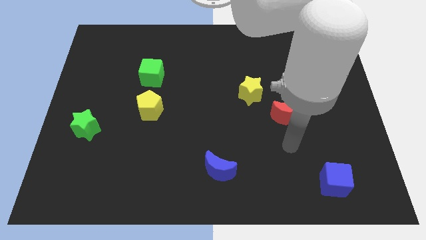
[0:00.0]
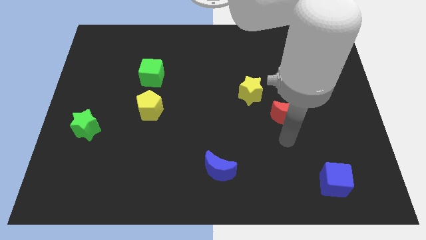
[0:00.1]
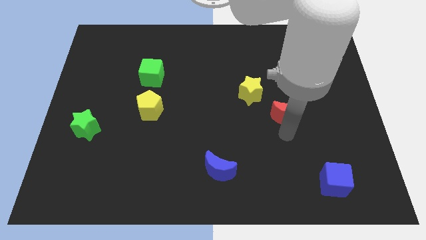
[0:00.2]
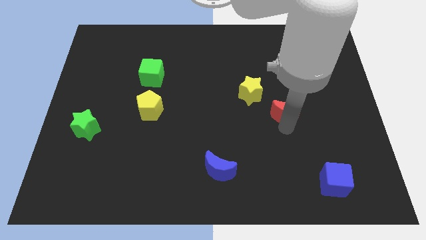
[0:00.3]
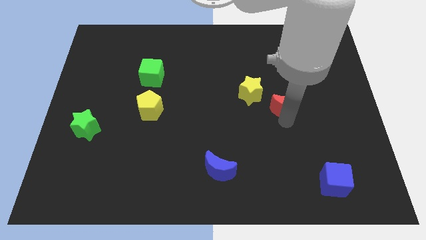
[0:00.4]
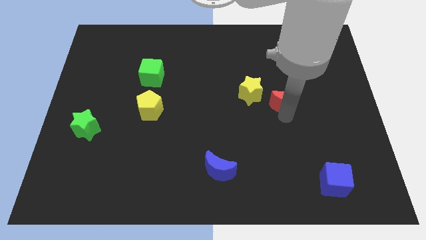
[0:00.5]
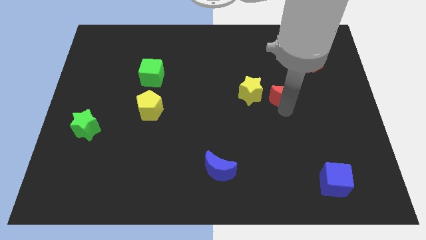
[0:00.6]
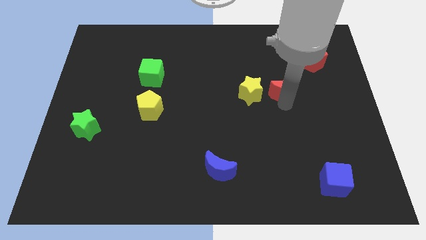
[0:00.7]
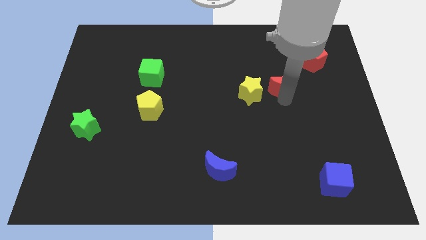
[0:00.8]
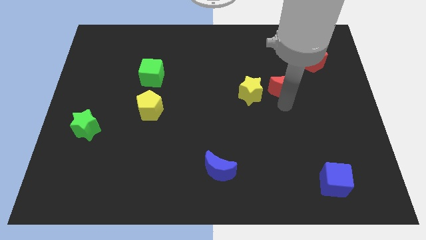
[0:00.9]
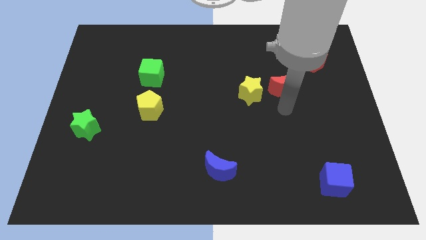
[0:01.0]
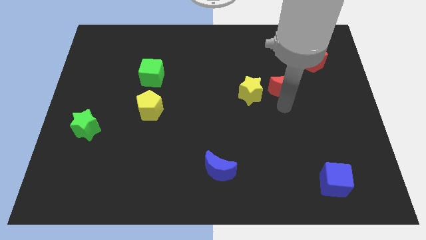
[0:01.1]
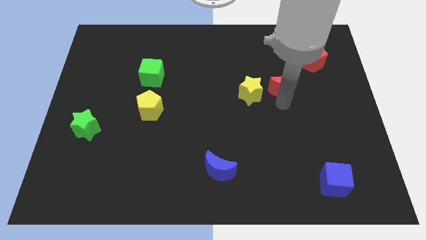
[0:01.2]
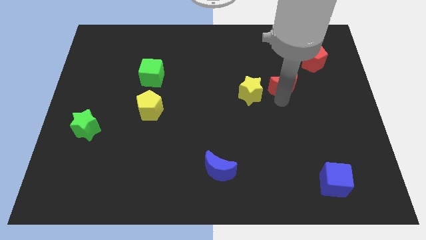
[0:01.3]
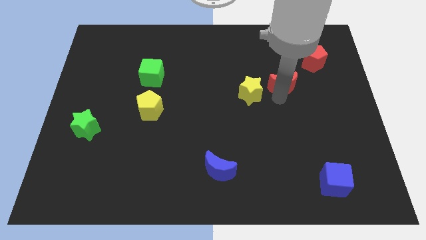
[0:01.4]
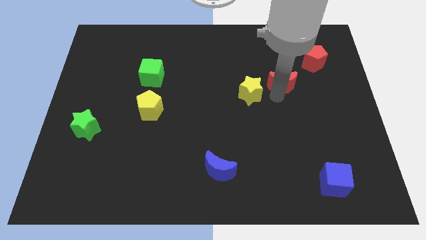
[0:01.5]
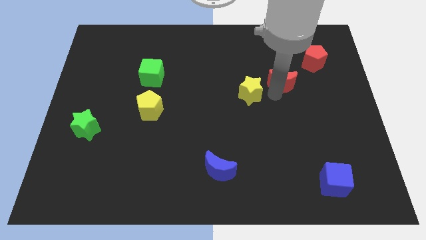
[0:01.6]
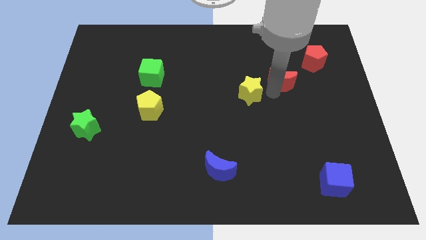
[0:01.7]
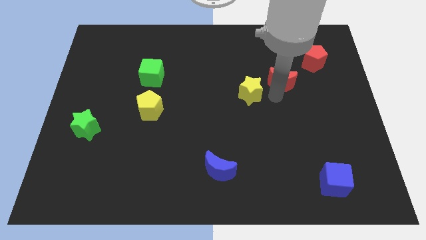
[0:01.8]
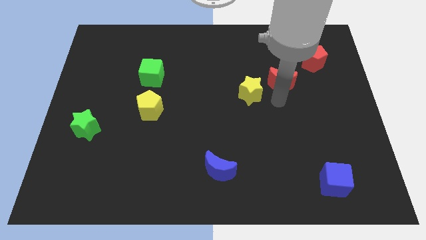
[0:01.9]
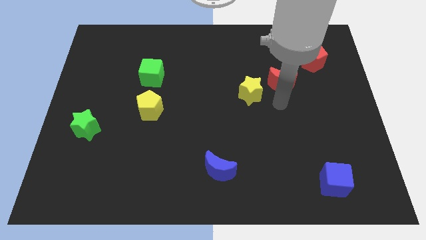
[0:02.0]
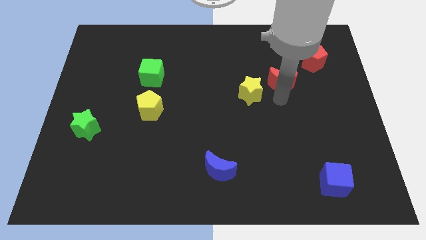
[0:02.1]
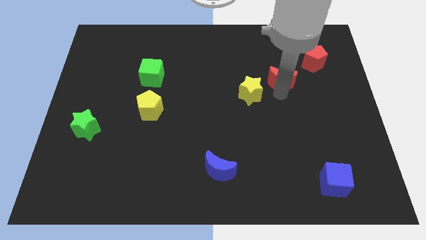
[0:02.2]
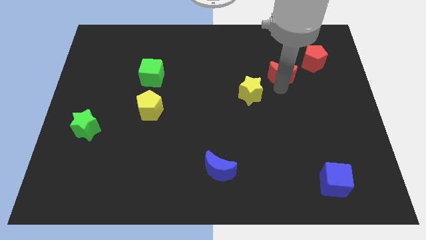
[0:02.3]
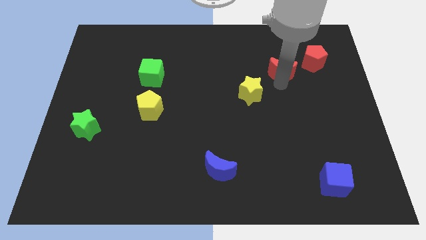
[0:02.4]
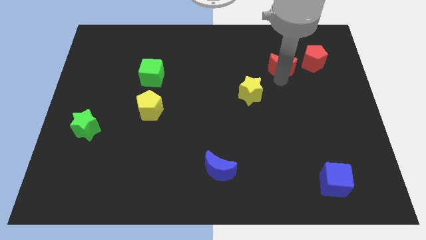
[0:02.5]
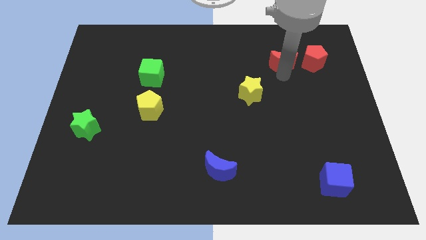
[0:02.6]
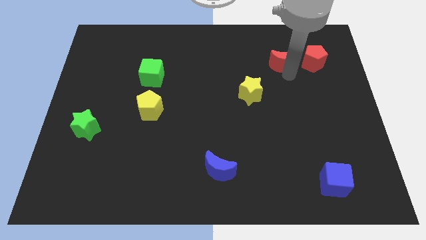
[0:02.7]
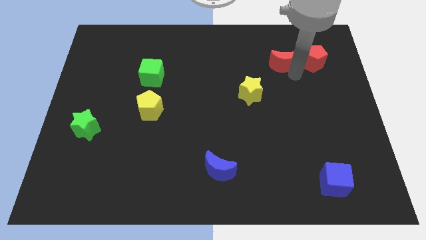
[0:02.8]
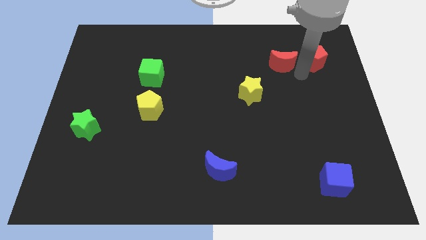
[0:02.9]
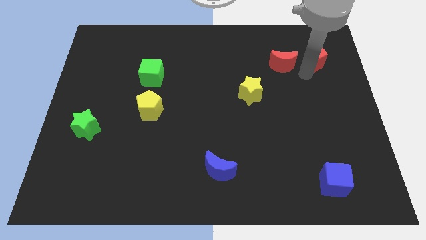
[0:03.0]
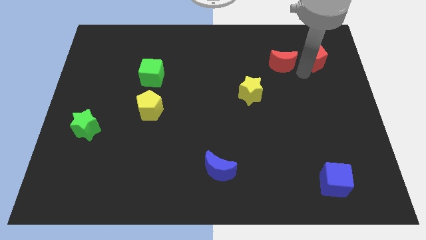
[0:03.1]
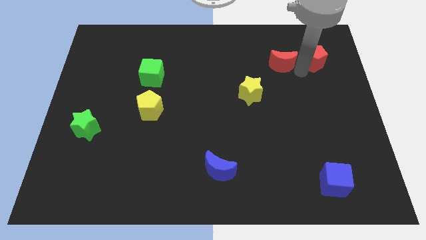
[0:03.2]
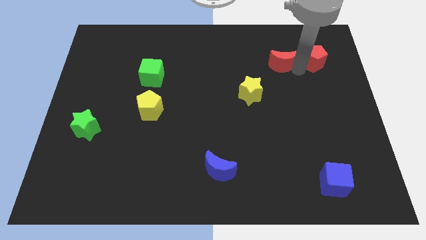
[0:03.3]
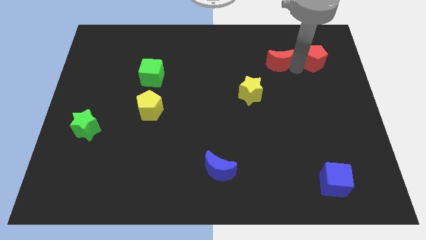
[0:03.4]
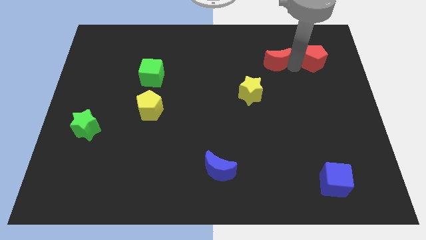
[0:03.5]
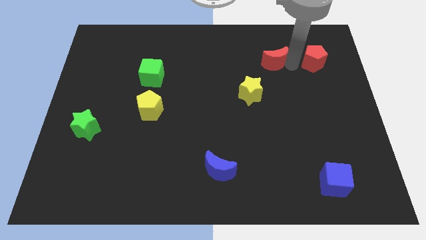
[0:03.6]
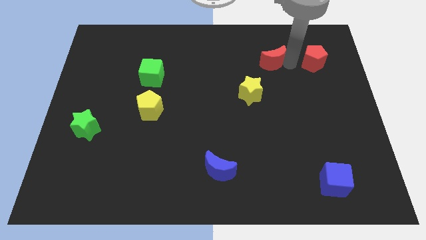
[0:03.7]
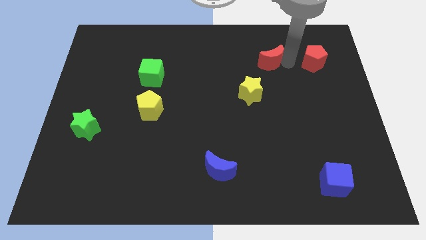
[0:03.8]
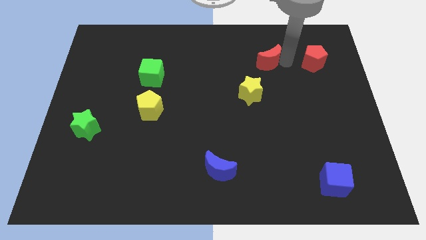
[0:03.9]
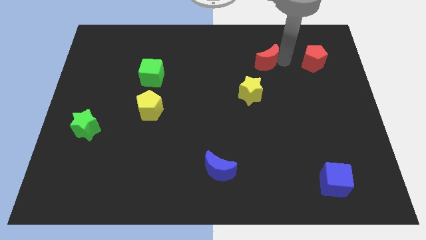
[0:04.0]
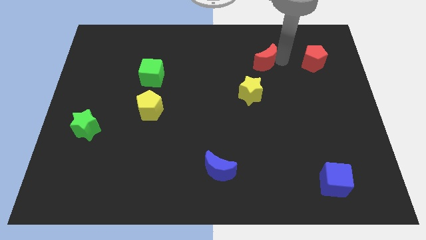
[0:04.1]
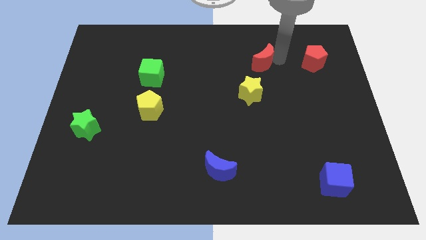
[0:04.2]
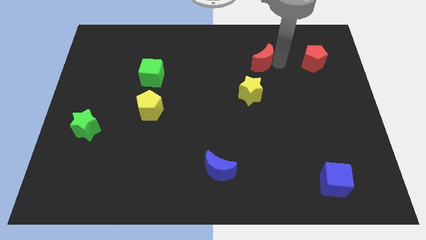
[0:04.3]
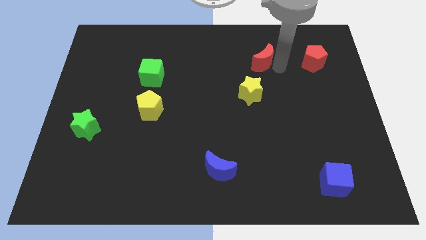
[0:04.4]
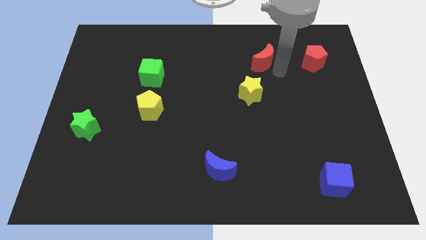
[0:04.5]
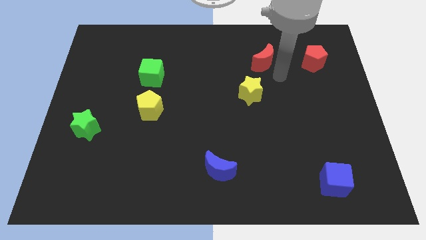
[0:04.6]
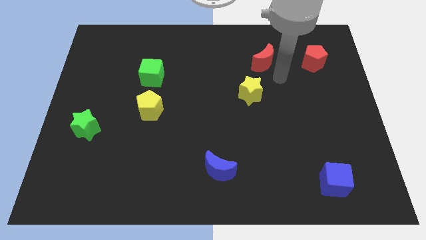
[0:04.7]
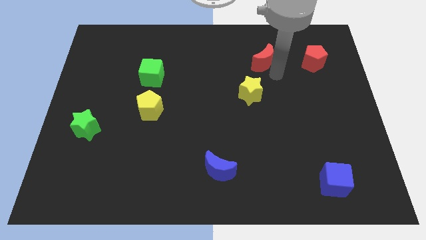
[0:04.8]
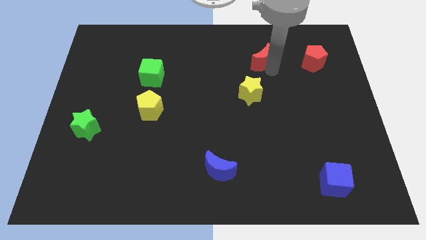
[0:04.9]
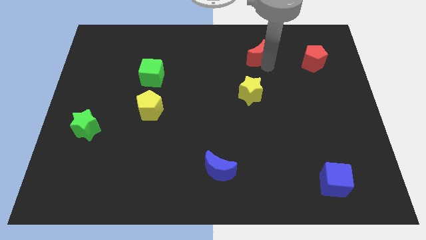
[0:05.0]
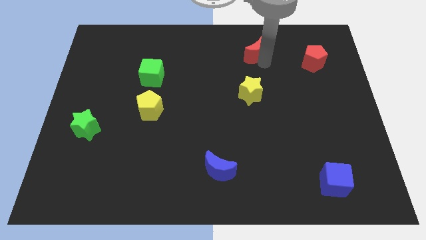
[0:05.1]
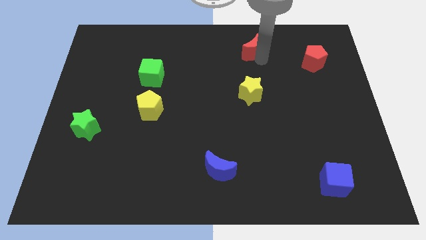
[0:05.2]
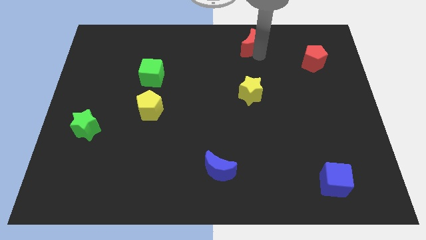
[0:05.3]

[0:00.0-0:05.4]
put the red moon to the top side

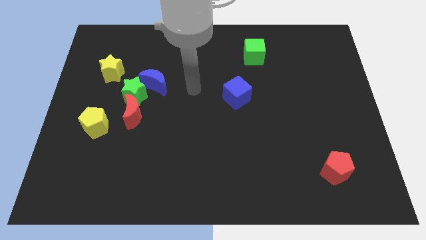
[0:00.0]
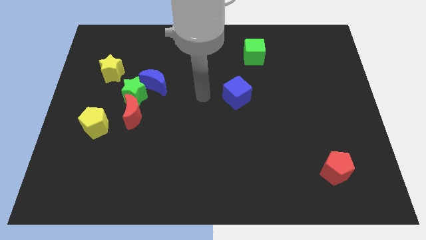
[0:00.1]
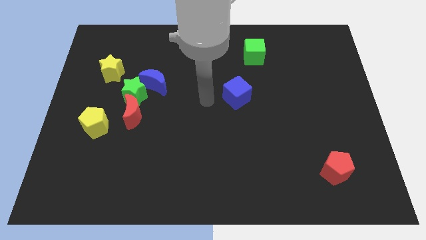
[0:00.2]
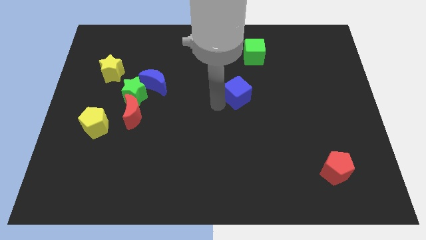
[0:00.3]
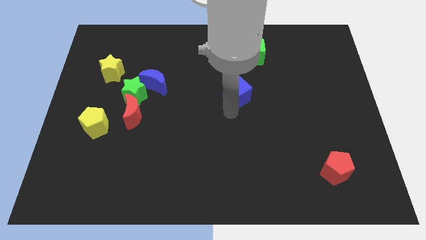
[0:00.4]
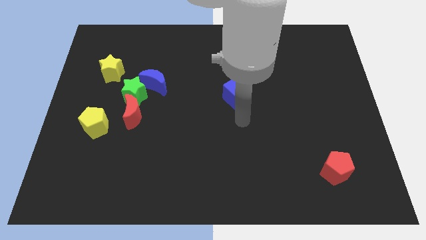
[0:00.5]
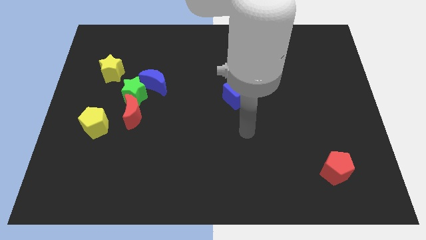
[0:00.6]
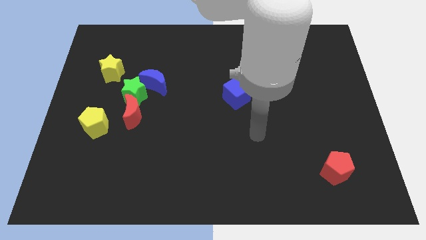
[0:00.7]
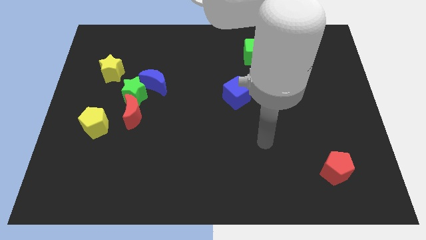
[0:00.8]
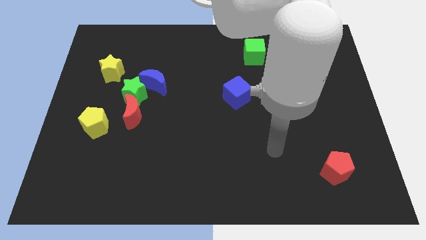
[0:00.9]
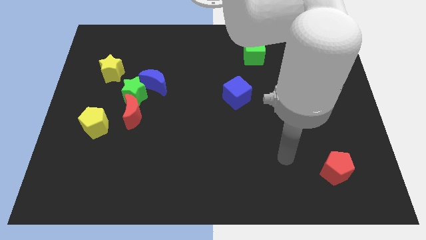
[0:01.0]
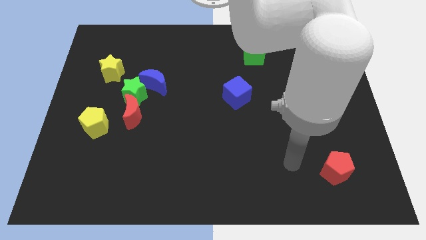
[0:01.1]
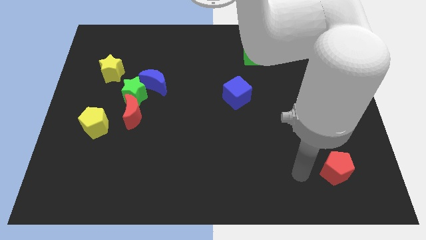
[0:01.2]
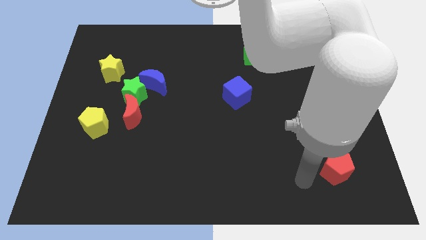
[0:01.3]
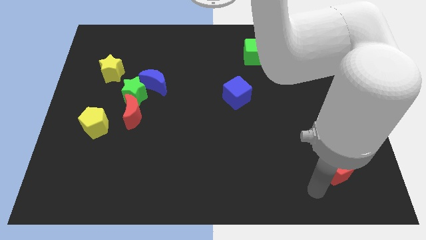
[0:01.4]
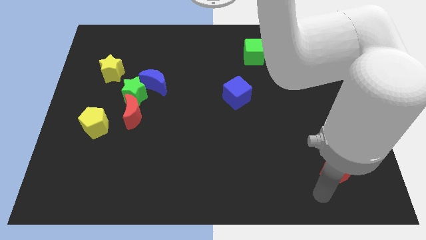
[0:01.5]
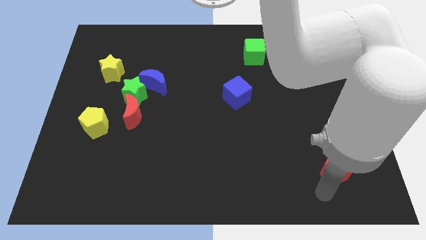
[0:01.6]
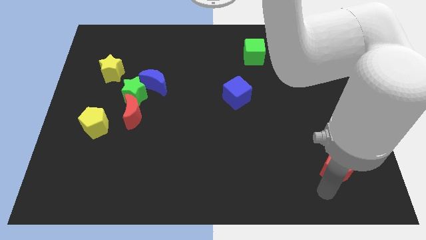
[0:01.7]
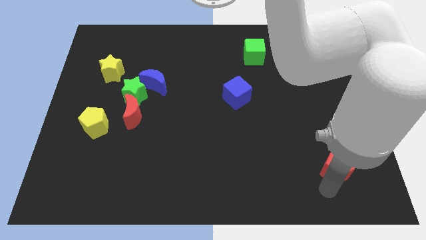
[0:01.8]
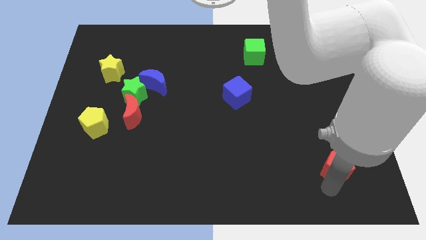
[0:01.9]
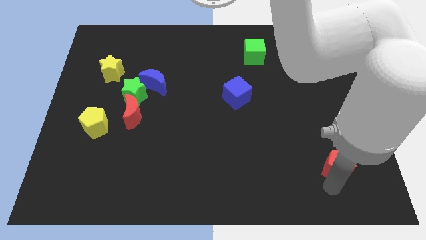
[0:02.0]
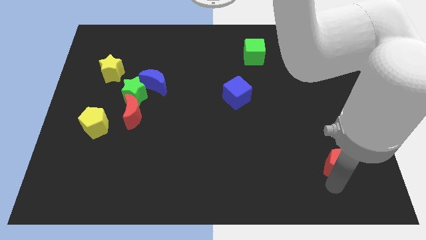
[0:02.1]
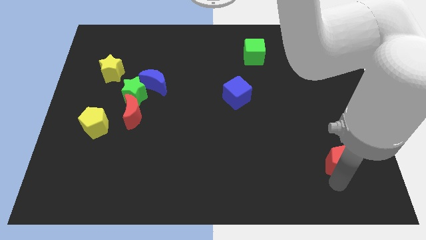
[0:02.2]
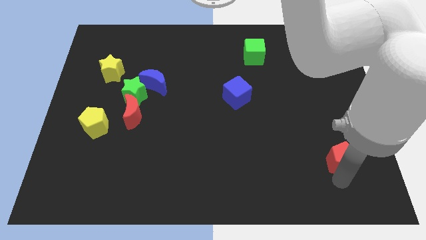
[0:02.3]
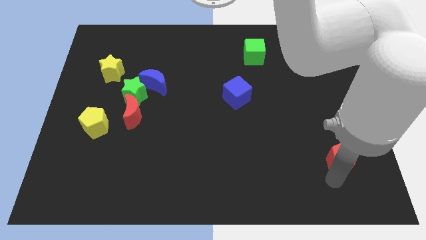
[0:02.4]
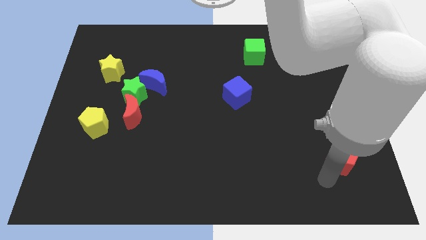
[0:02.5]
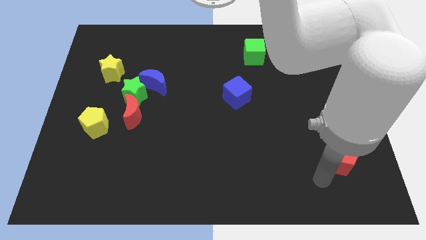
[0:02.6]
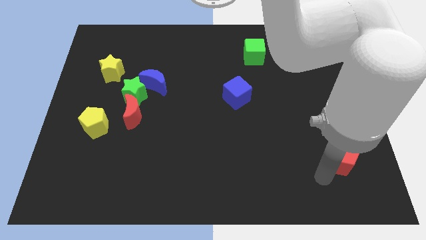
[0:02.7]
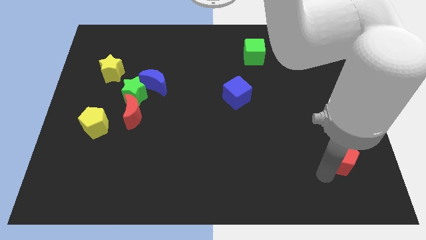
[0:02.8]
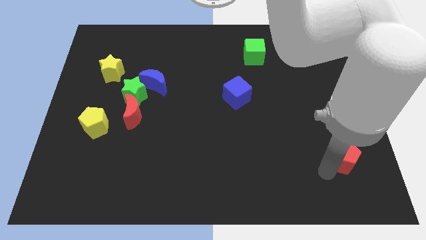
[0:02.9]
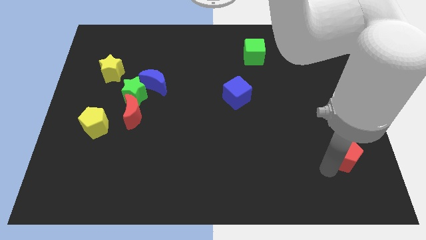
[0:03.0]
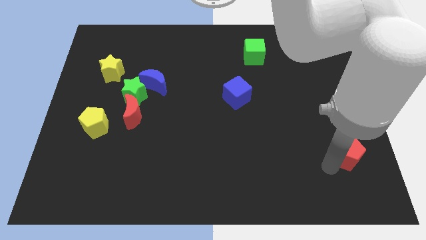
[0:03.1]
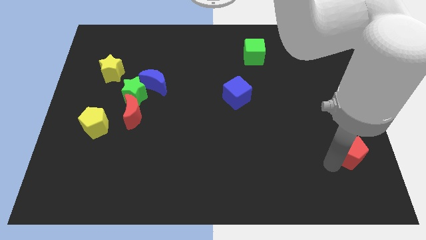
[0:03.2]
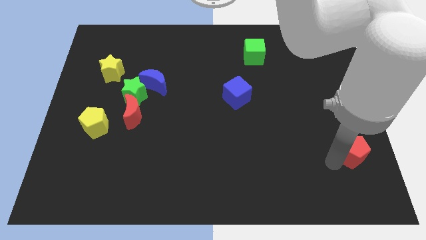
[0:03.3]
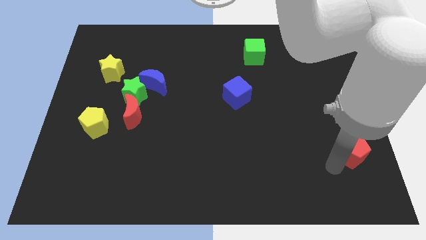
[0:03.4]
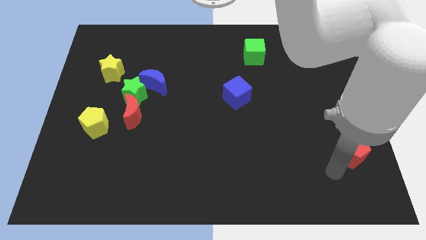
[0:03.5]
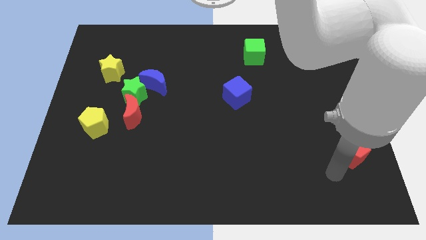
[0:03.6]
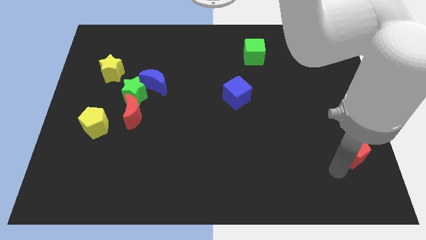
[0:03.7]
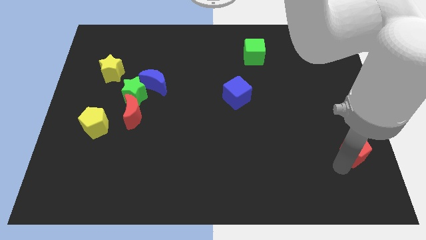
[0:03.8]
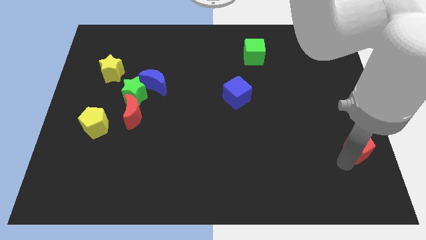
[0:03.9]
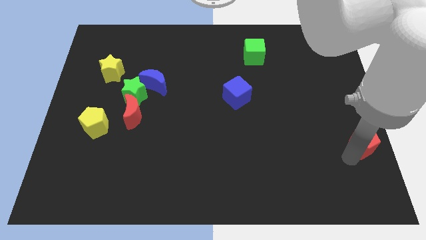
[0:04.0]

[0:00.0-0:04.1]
slide the red pentagon to the center right
